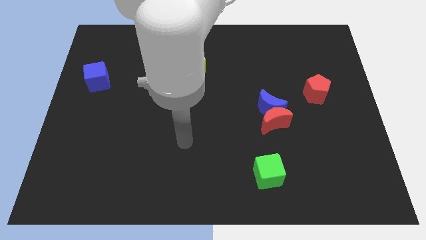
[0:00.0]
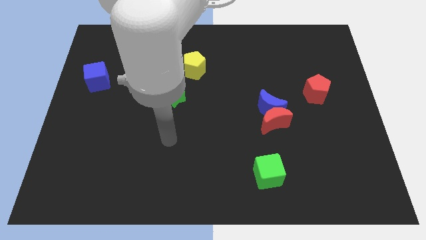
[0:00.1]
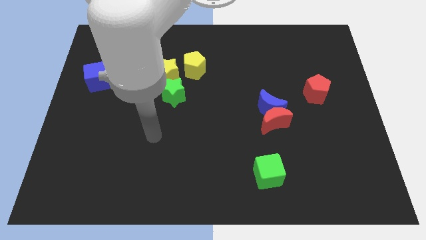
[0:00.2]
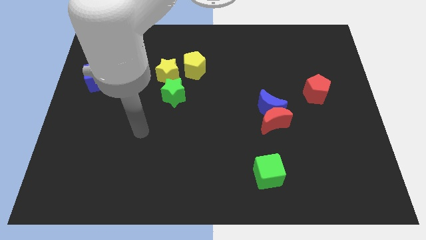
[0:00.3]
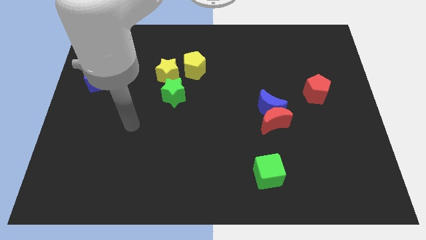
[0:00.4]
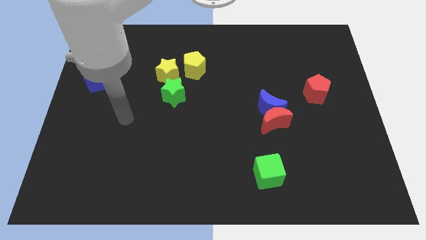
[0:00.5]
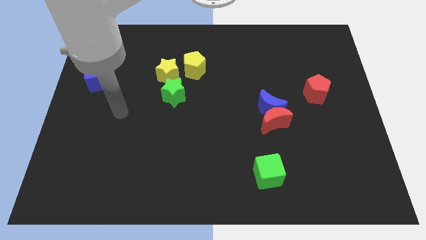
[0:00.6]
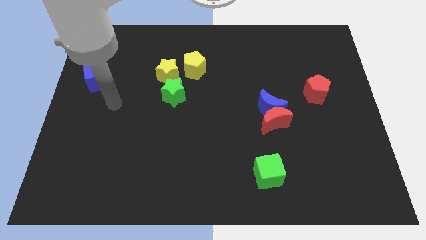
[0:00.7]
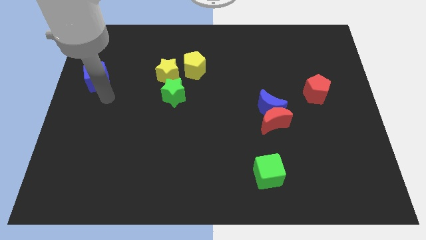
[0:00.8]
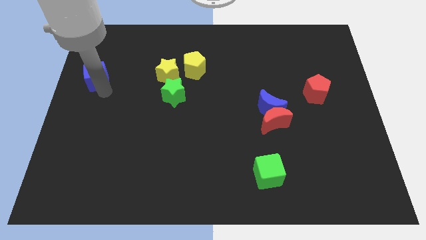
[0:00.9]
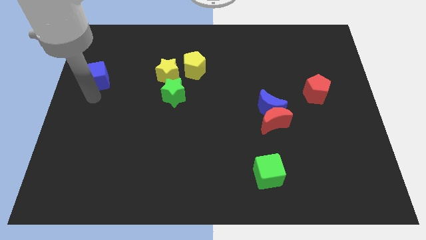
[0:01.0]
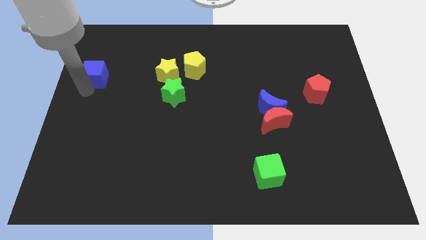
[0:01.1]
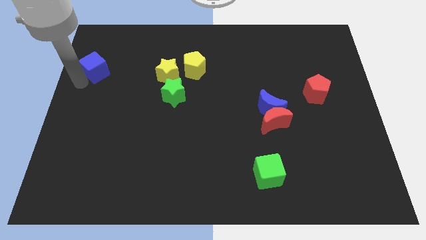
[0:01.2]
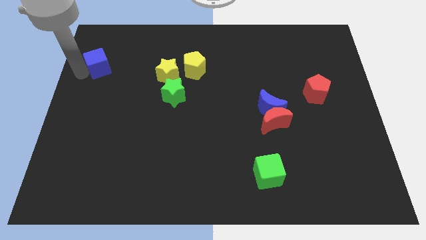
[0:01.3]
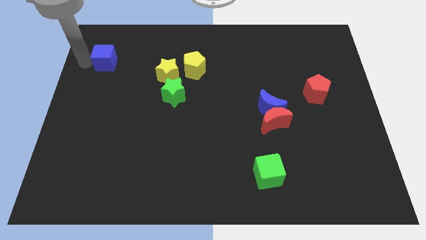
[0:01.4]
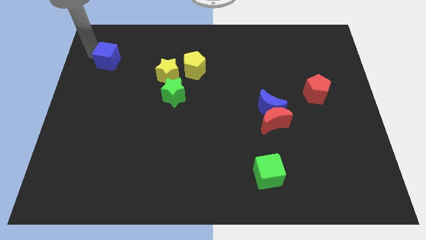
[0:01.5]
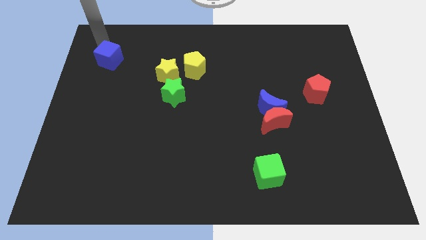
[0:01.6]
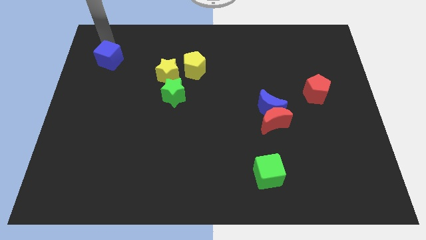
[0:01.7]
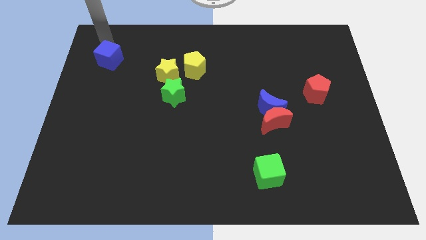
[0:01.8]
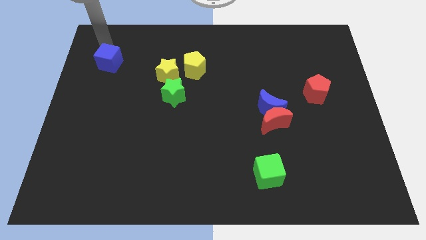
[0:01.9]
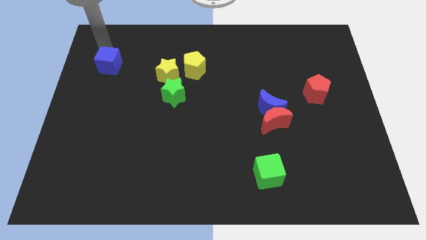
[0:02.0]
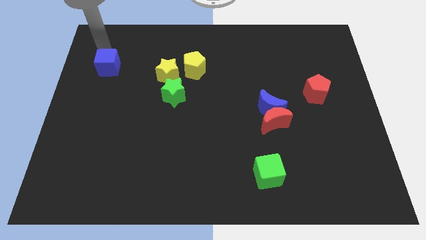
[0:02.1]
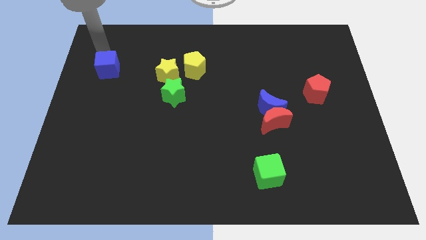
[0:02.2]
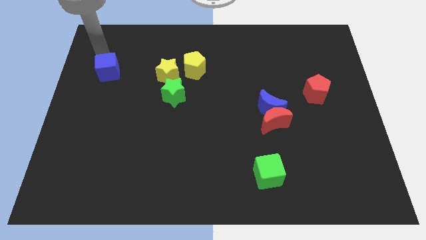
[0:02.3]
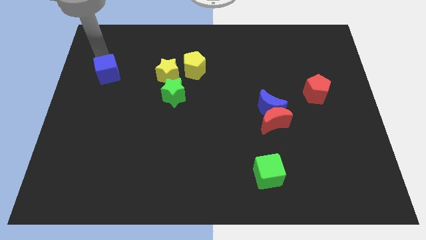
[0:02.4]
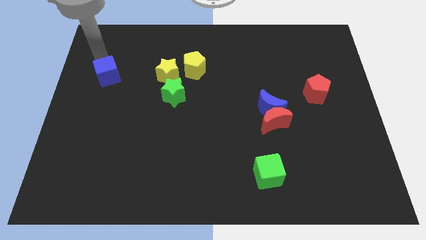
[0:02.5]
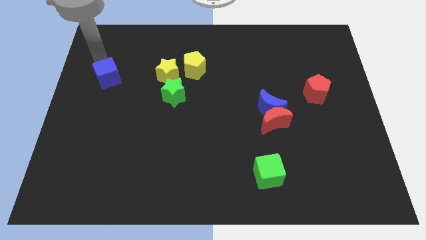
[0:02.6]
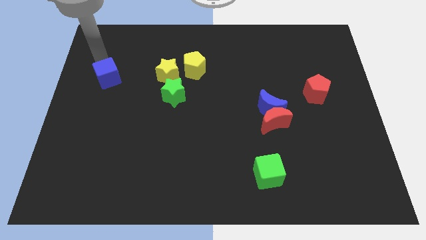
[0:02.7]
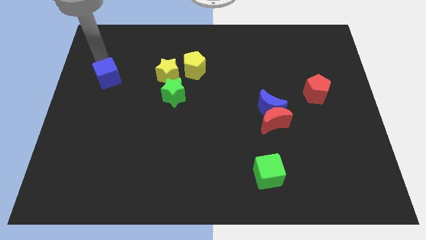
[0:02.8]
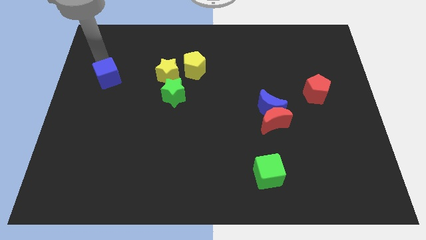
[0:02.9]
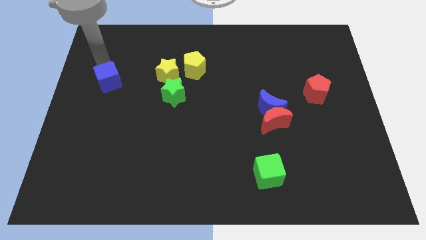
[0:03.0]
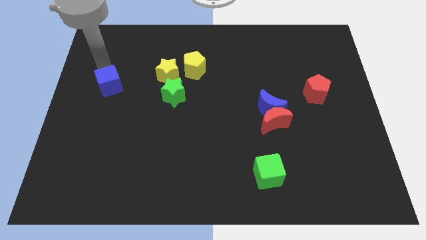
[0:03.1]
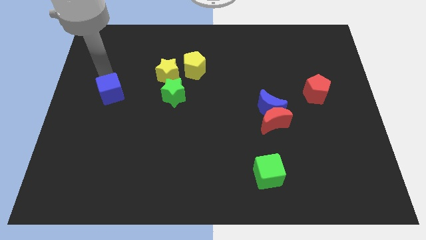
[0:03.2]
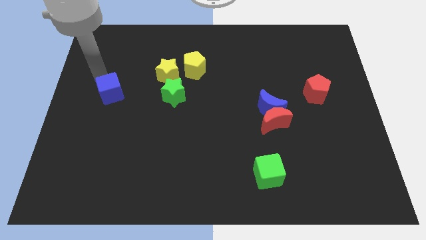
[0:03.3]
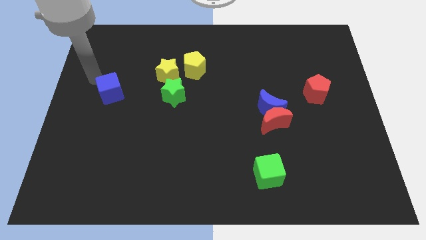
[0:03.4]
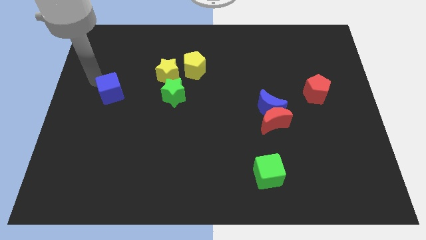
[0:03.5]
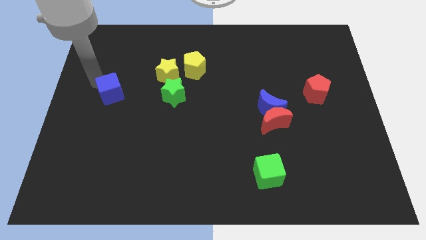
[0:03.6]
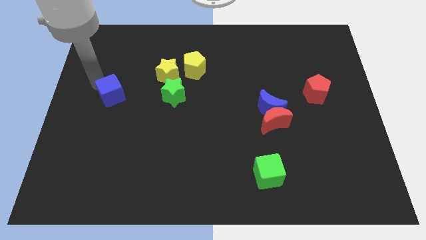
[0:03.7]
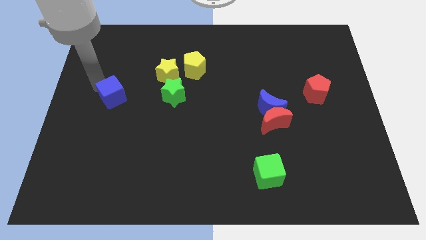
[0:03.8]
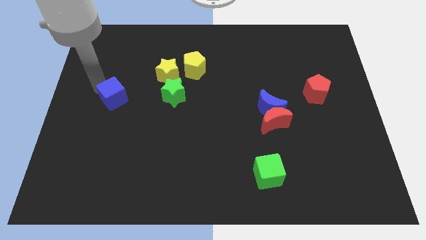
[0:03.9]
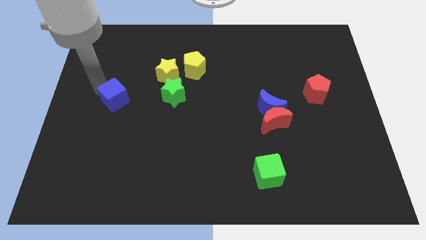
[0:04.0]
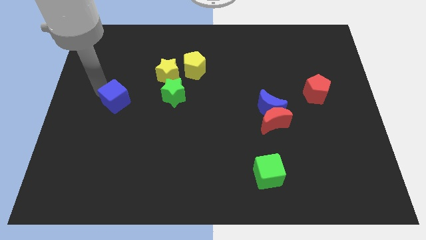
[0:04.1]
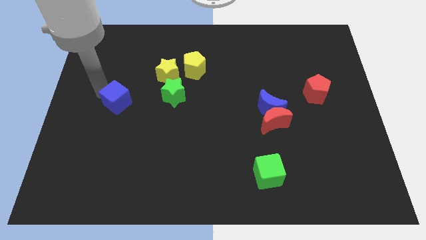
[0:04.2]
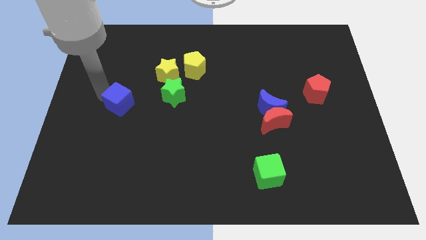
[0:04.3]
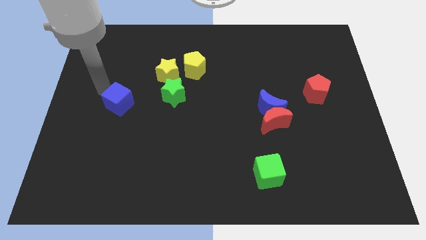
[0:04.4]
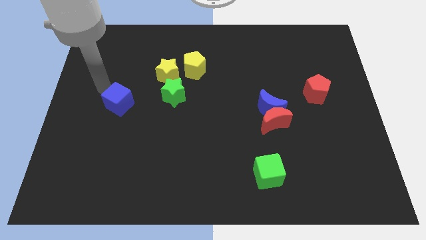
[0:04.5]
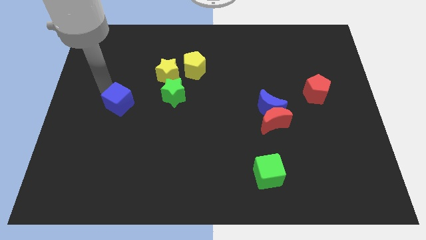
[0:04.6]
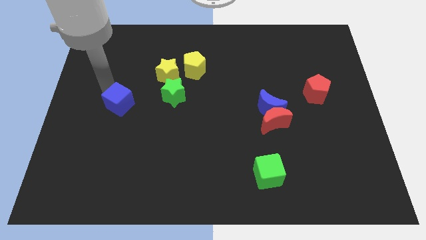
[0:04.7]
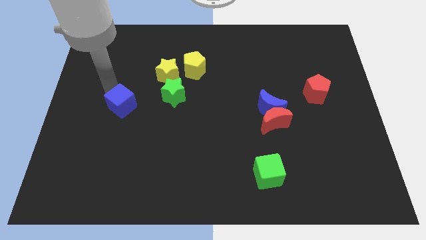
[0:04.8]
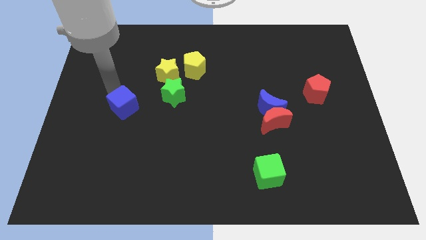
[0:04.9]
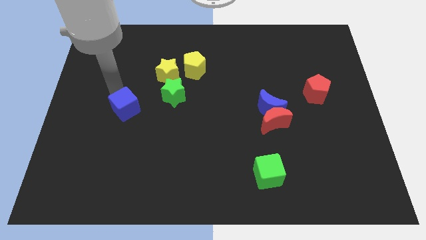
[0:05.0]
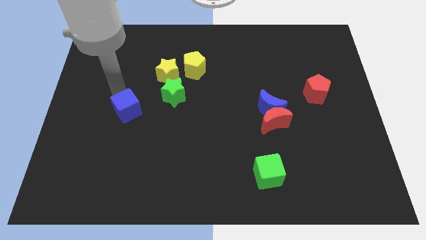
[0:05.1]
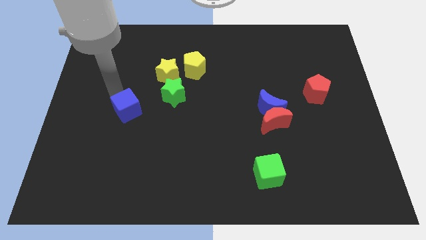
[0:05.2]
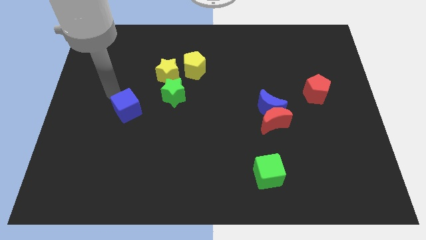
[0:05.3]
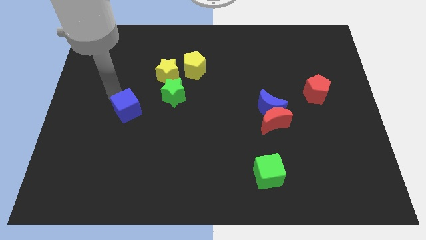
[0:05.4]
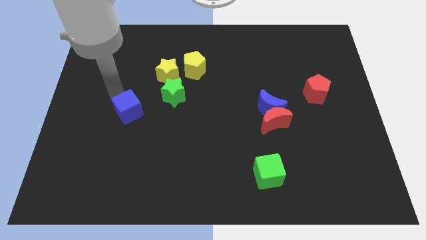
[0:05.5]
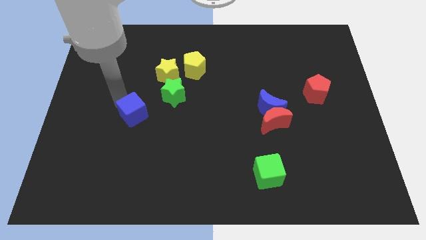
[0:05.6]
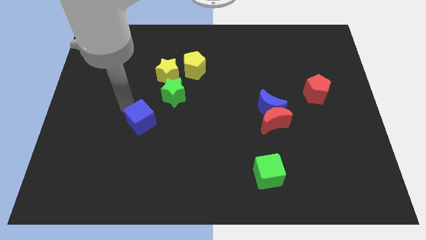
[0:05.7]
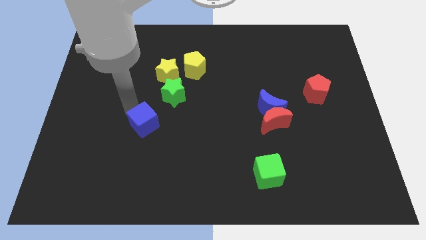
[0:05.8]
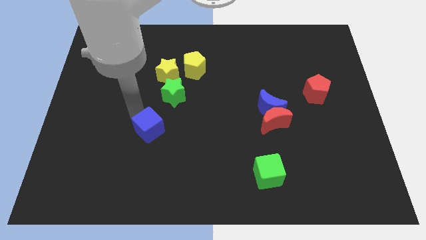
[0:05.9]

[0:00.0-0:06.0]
slide the blue cube down and right

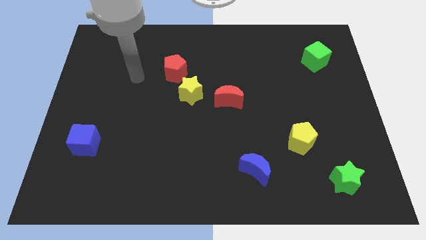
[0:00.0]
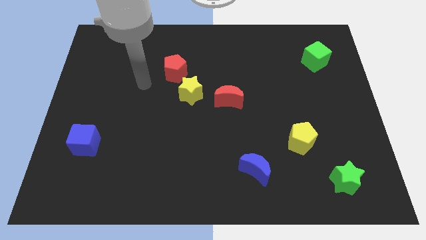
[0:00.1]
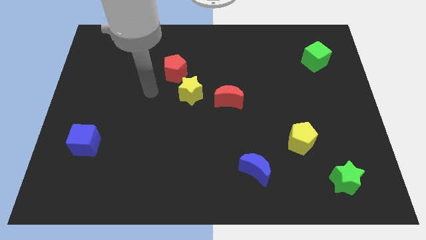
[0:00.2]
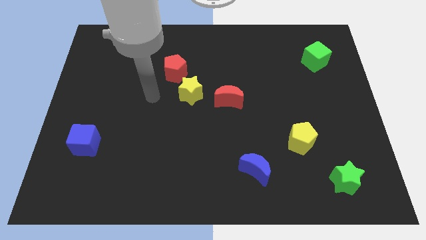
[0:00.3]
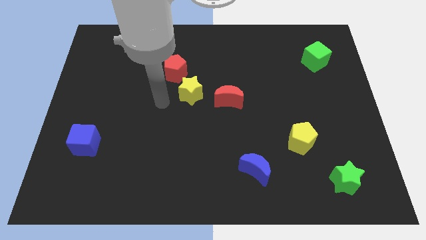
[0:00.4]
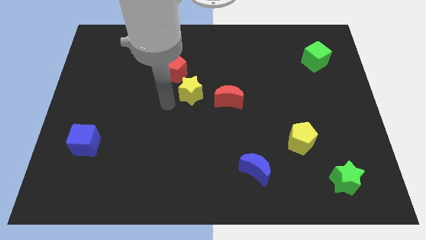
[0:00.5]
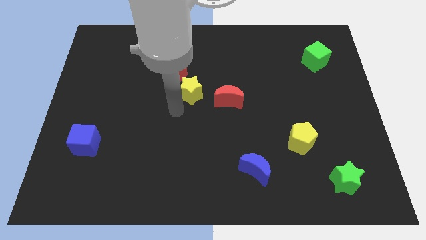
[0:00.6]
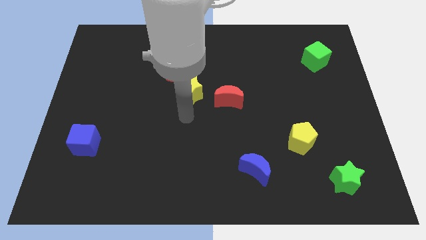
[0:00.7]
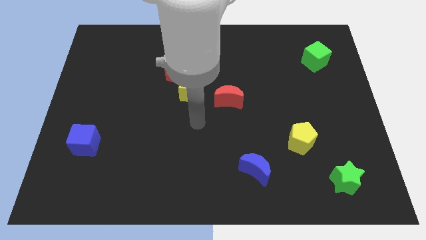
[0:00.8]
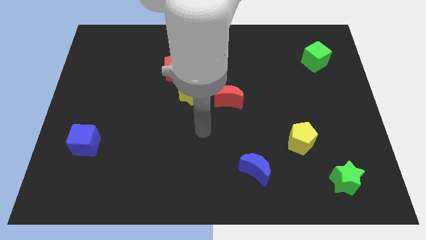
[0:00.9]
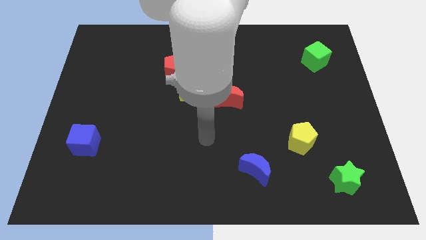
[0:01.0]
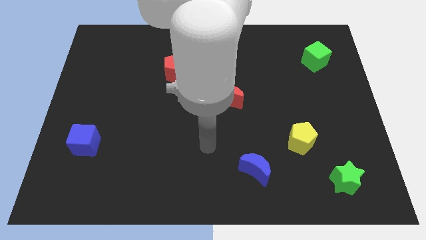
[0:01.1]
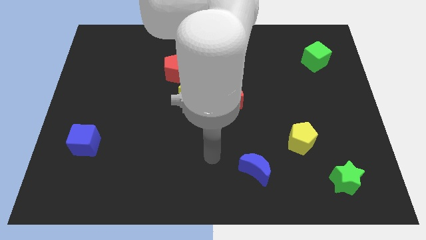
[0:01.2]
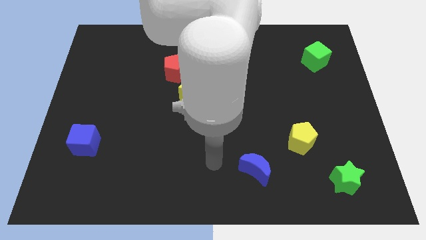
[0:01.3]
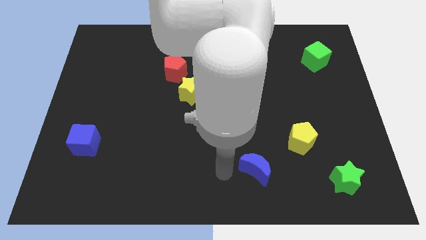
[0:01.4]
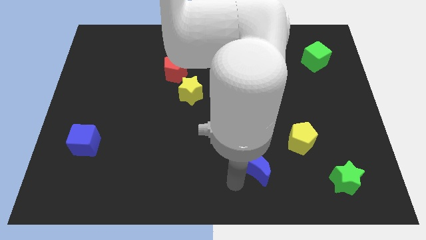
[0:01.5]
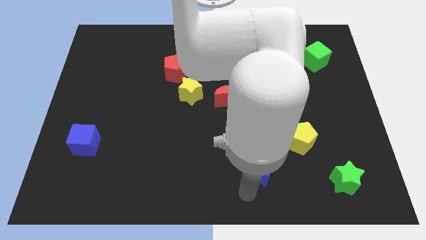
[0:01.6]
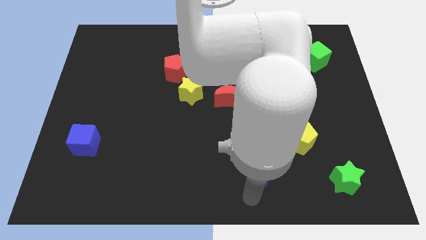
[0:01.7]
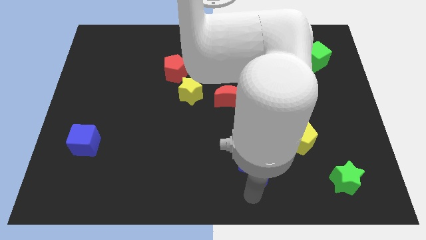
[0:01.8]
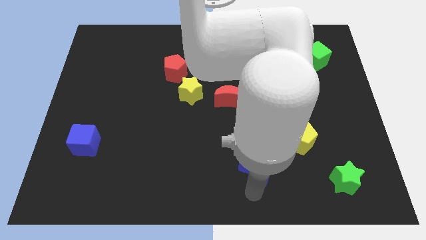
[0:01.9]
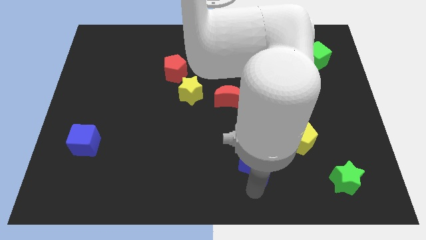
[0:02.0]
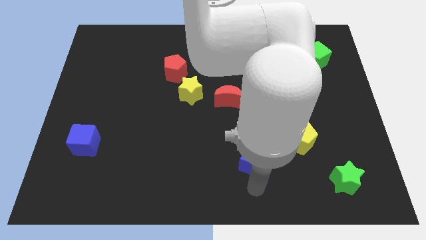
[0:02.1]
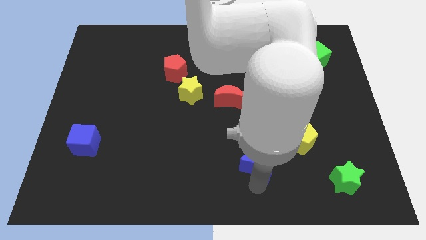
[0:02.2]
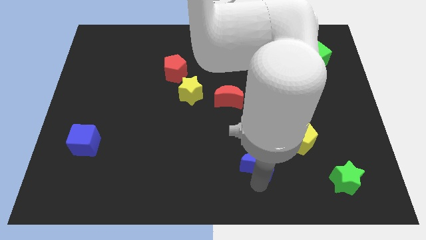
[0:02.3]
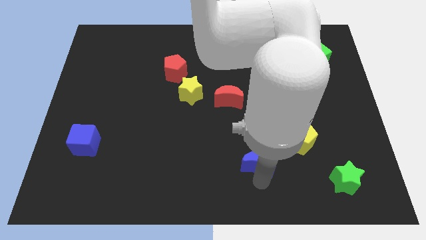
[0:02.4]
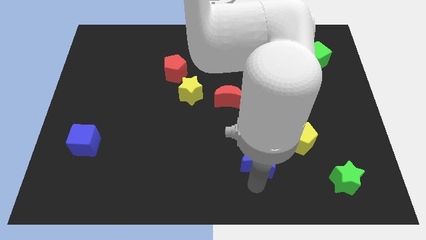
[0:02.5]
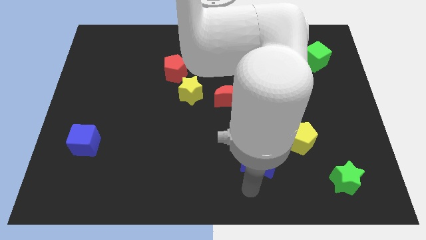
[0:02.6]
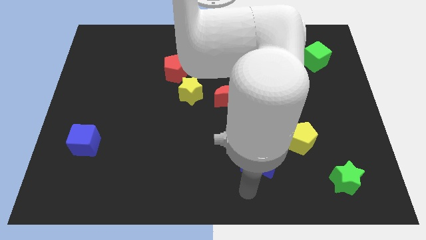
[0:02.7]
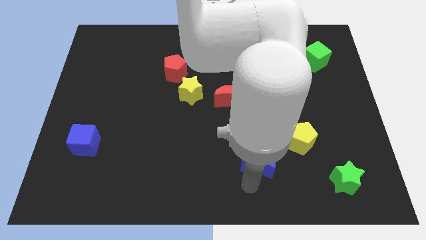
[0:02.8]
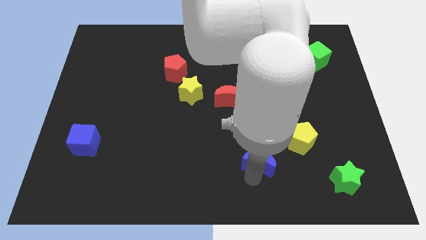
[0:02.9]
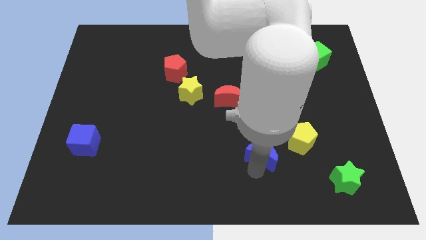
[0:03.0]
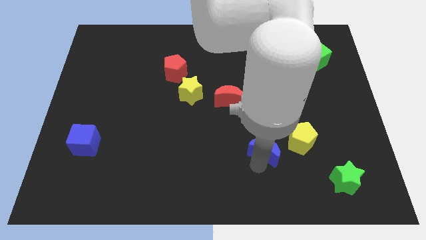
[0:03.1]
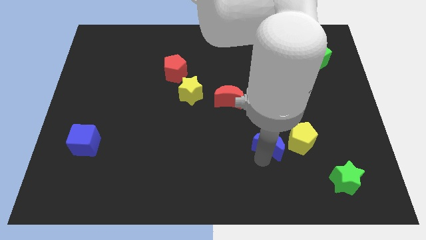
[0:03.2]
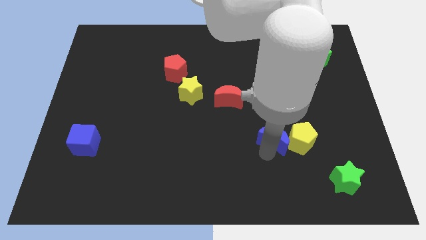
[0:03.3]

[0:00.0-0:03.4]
slightly push the blue moon upwards and then to the right
